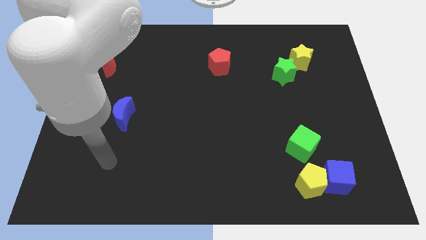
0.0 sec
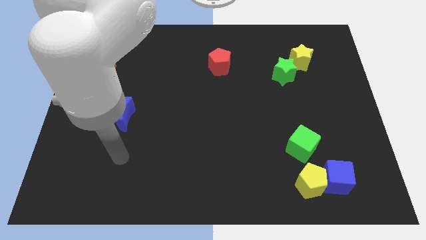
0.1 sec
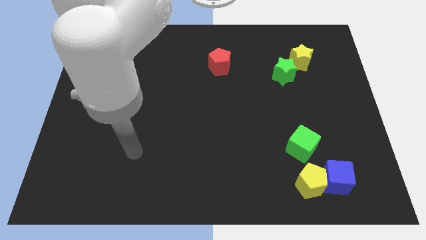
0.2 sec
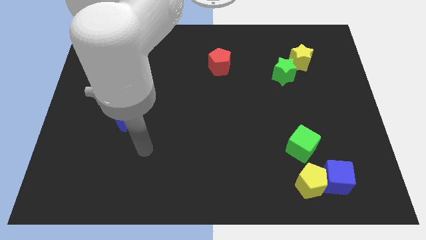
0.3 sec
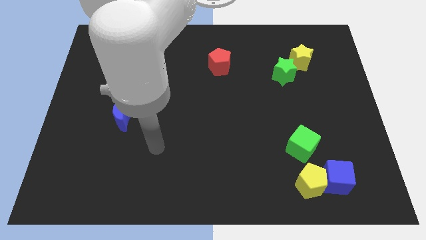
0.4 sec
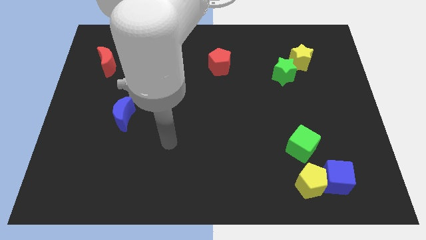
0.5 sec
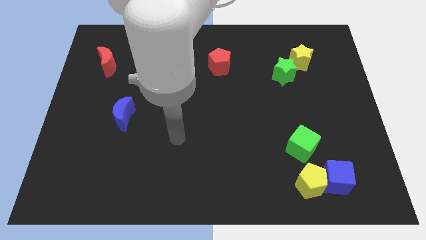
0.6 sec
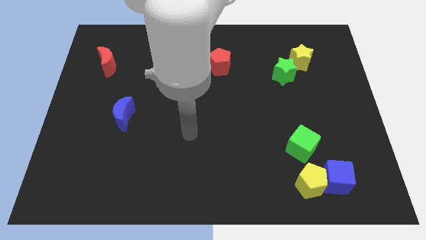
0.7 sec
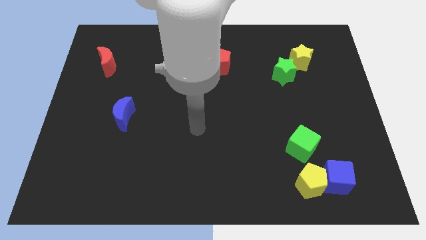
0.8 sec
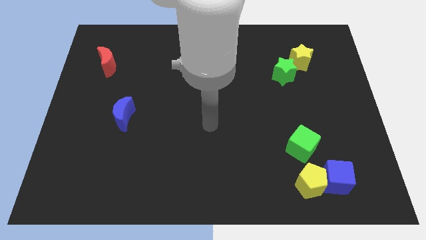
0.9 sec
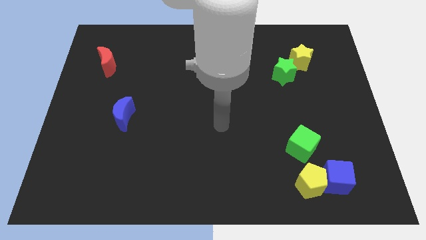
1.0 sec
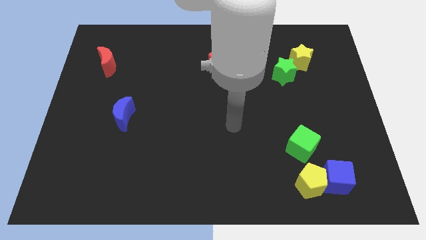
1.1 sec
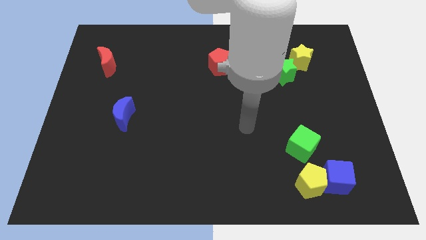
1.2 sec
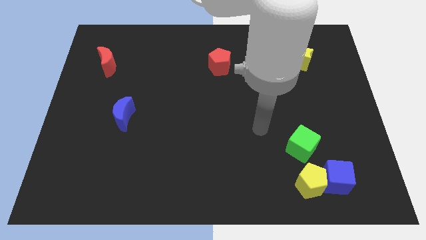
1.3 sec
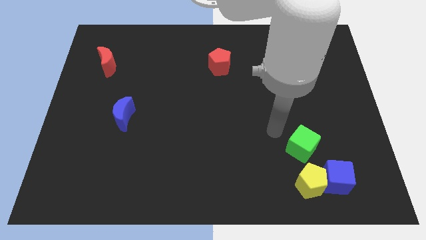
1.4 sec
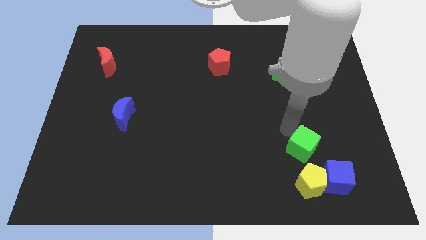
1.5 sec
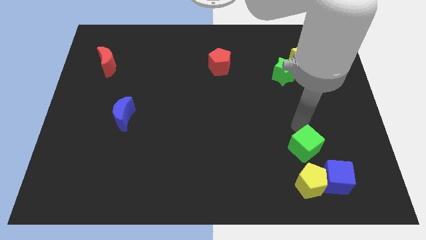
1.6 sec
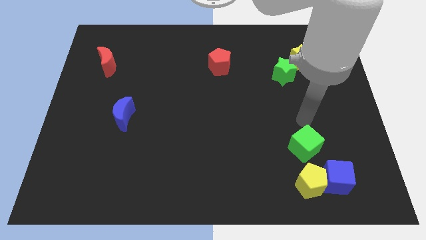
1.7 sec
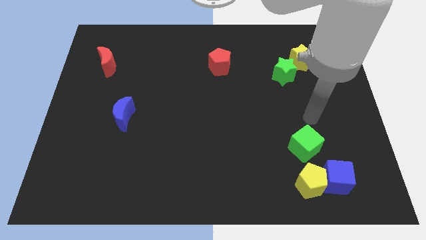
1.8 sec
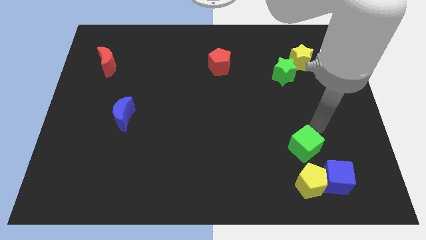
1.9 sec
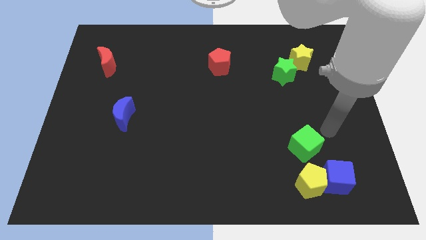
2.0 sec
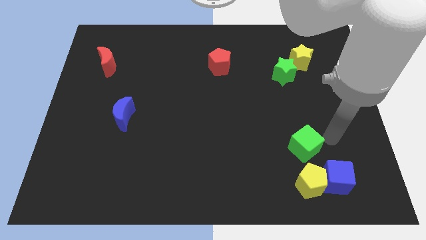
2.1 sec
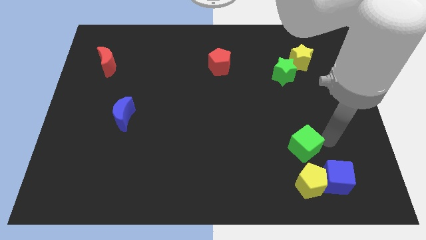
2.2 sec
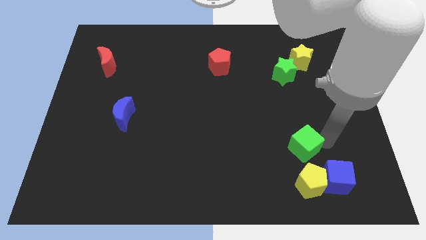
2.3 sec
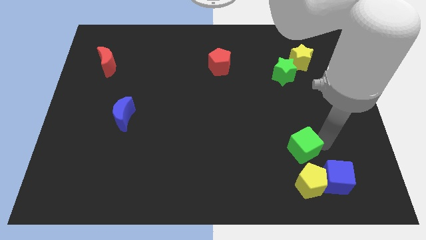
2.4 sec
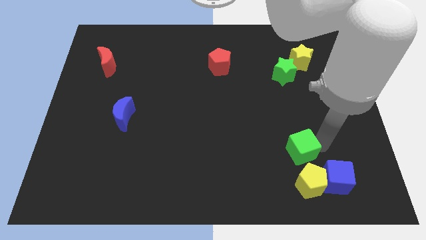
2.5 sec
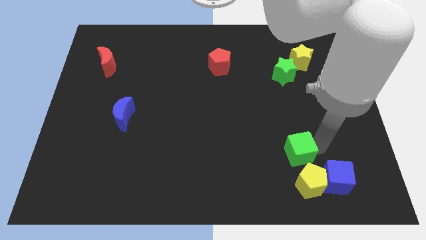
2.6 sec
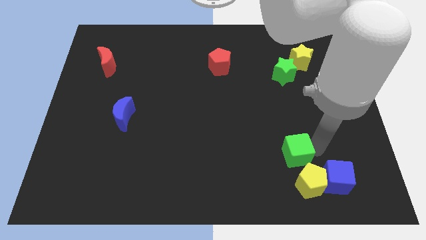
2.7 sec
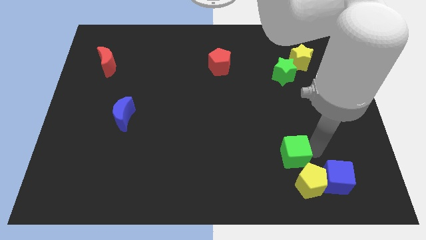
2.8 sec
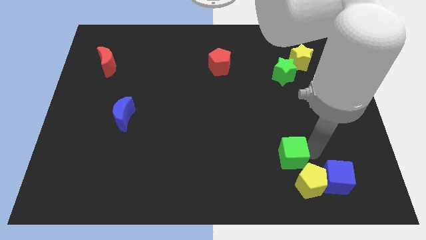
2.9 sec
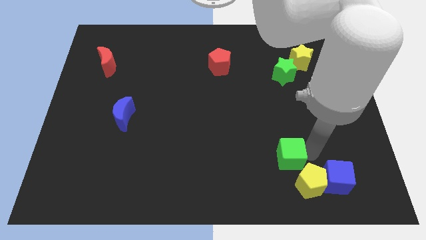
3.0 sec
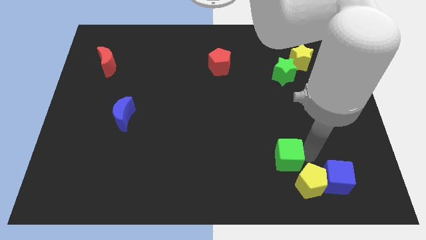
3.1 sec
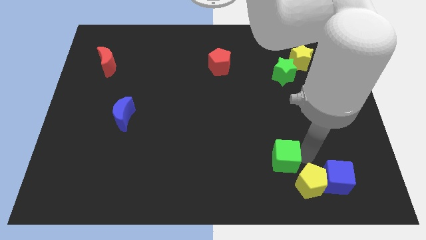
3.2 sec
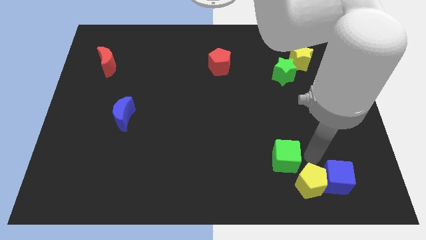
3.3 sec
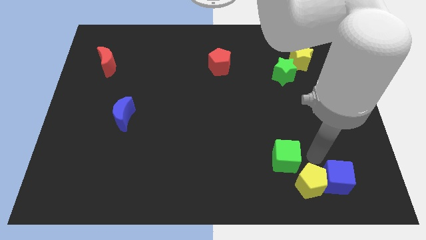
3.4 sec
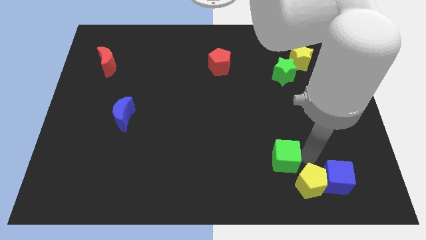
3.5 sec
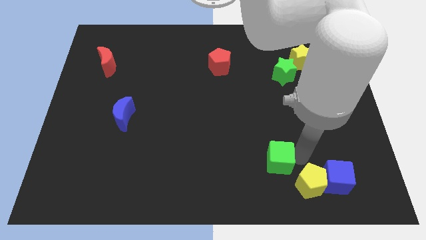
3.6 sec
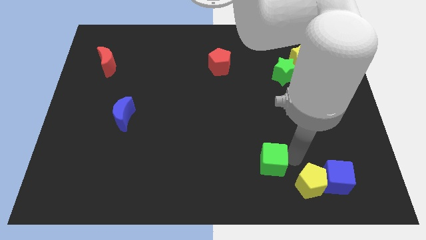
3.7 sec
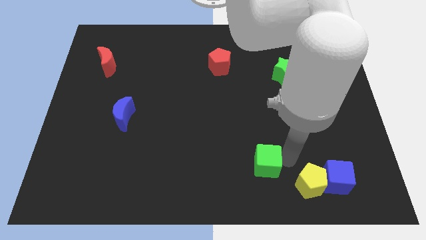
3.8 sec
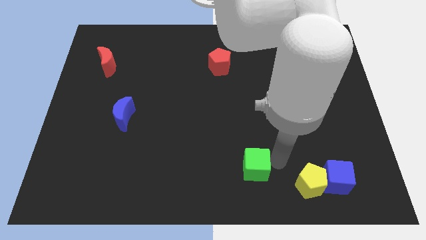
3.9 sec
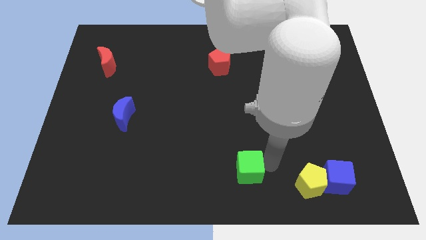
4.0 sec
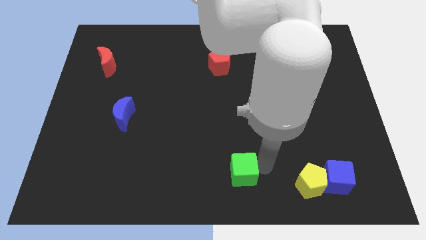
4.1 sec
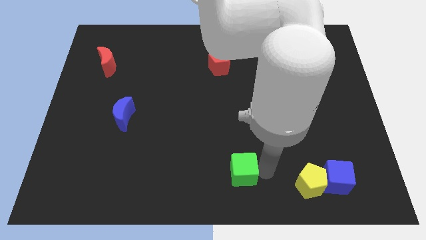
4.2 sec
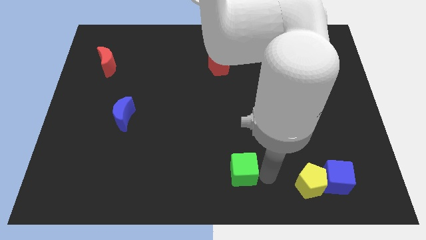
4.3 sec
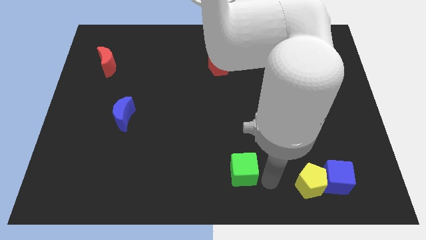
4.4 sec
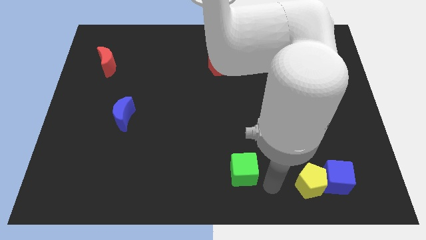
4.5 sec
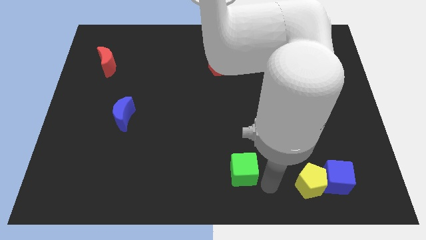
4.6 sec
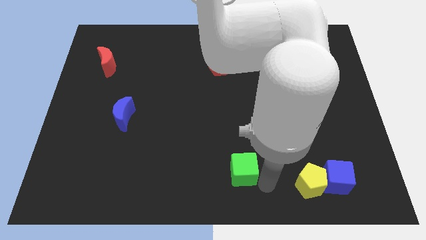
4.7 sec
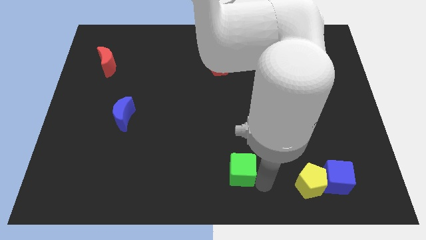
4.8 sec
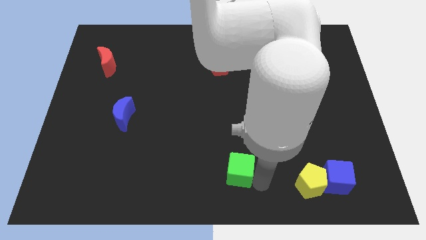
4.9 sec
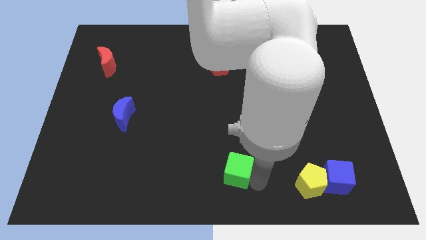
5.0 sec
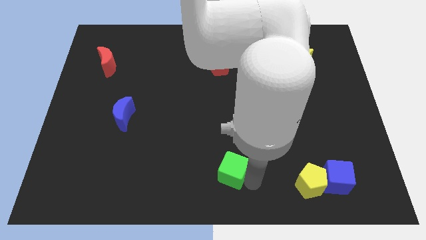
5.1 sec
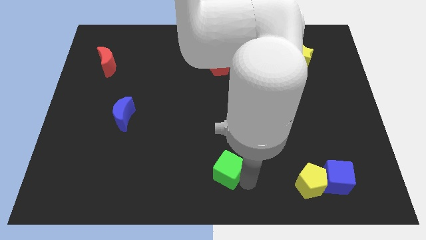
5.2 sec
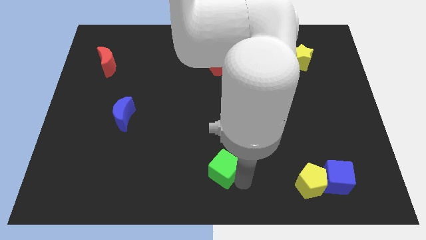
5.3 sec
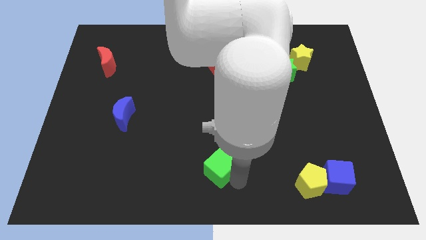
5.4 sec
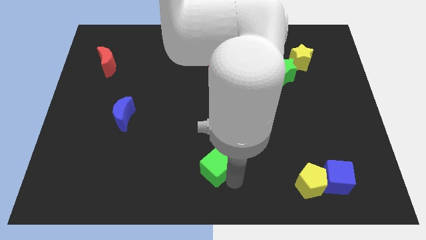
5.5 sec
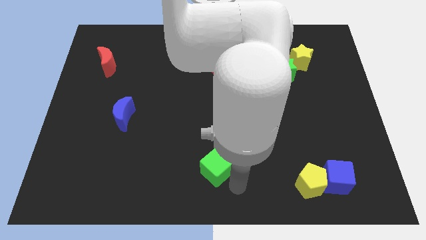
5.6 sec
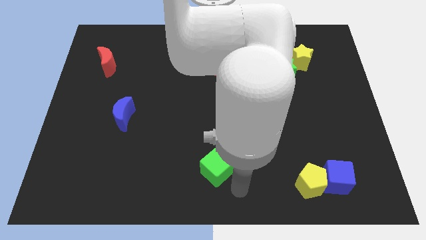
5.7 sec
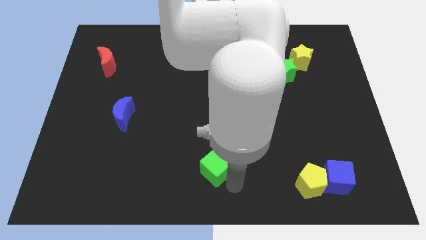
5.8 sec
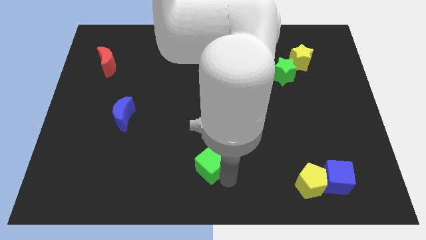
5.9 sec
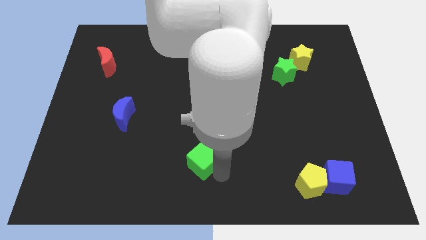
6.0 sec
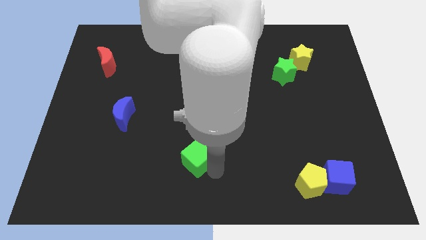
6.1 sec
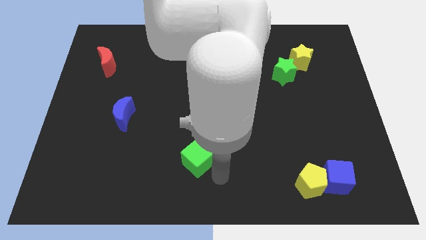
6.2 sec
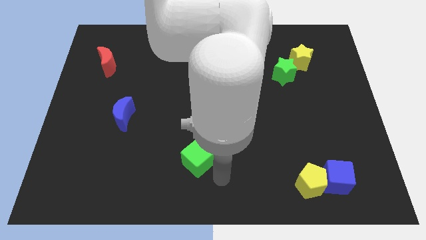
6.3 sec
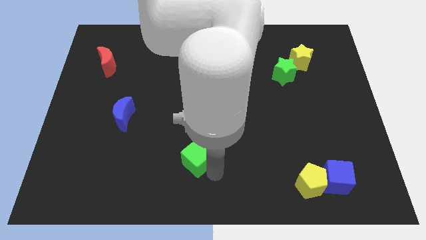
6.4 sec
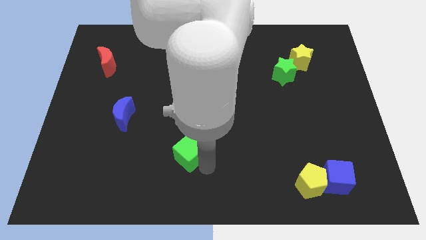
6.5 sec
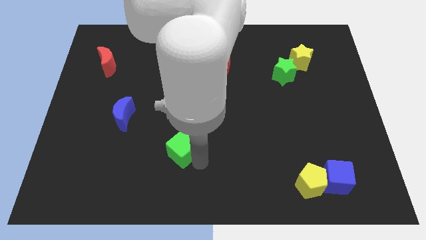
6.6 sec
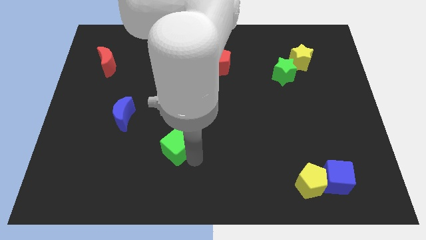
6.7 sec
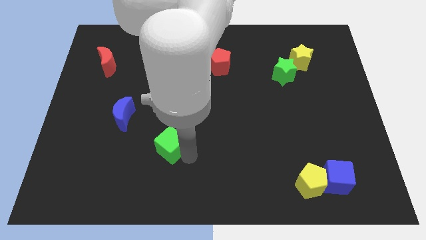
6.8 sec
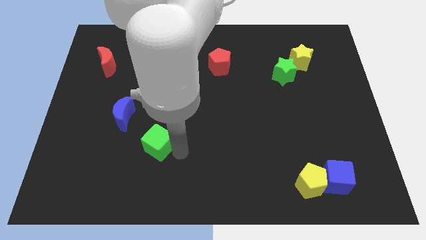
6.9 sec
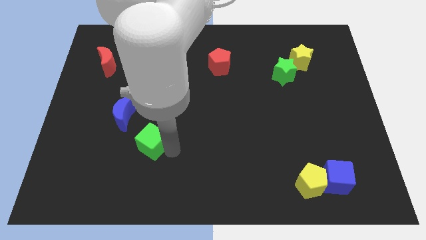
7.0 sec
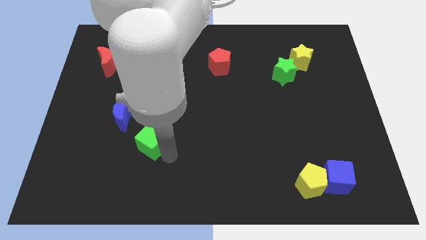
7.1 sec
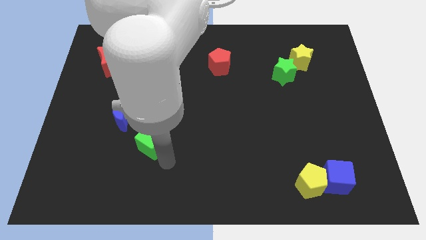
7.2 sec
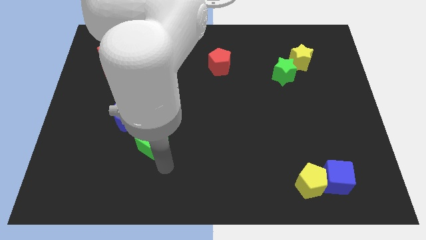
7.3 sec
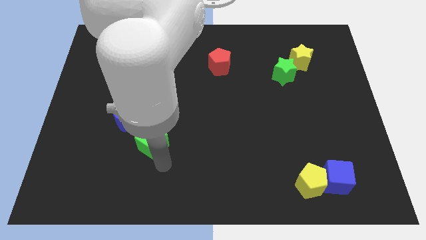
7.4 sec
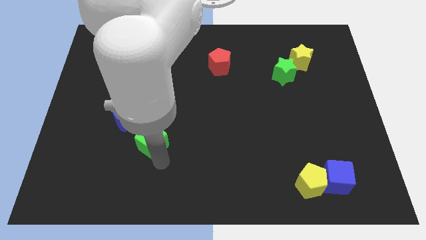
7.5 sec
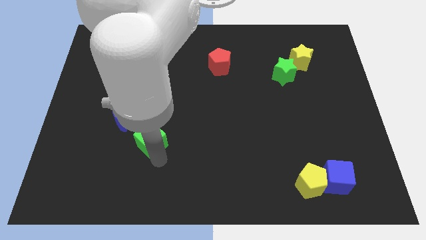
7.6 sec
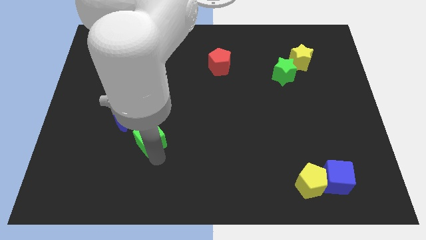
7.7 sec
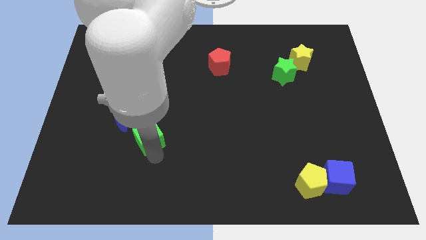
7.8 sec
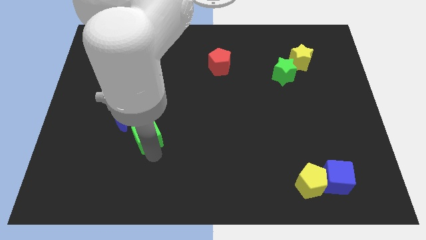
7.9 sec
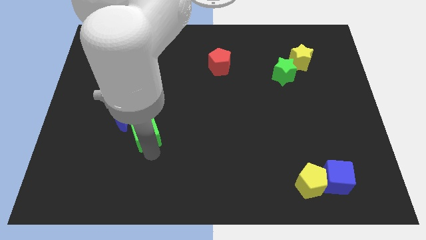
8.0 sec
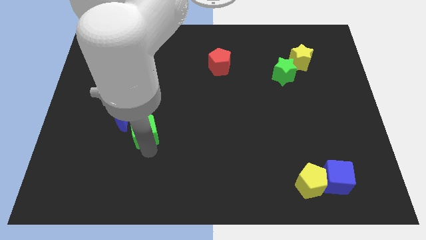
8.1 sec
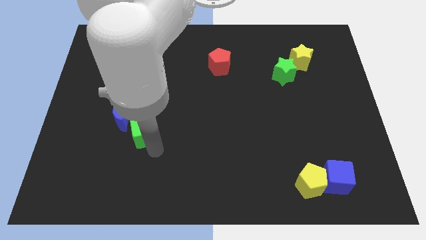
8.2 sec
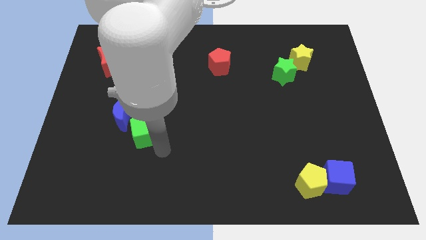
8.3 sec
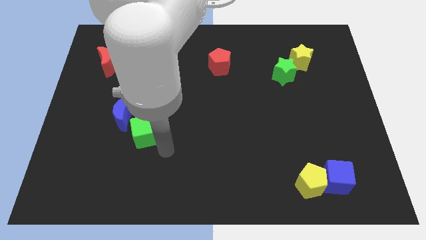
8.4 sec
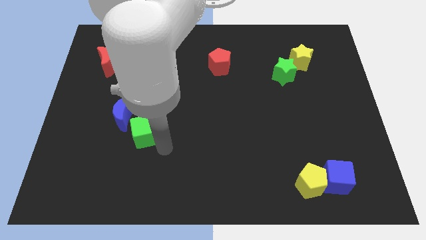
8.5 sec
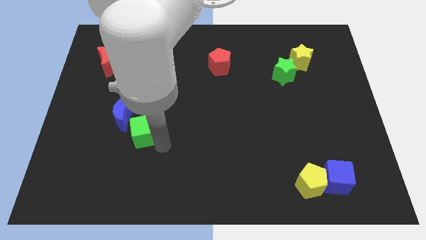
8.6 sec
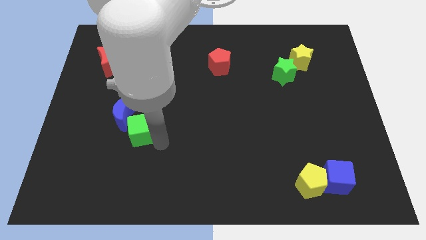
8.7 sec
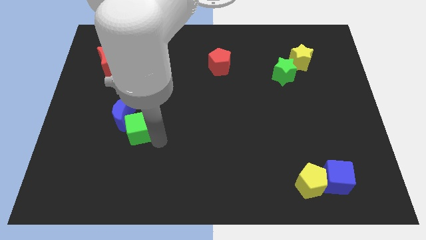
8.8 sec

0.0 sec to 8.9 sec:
move the green cube to the blue moon
